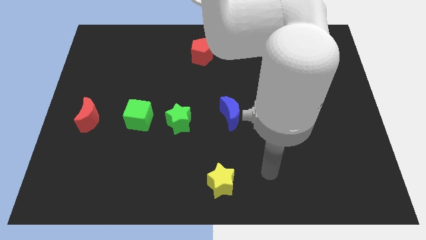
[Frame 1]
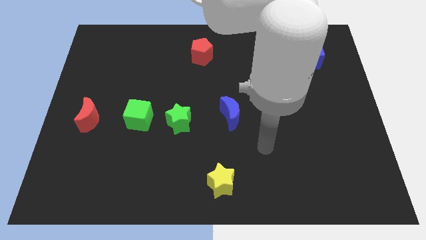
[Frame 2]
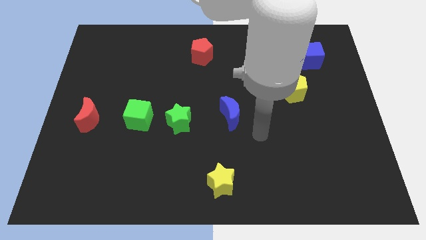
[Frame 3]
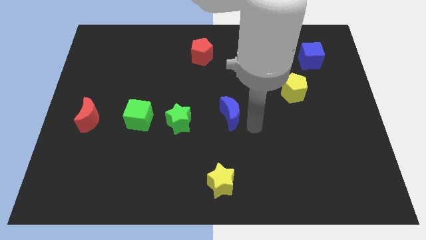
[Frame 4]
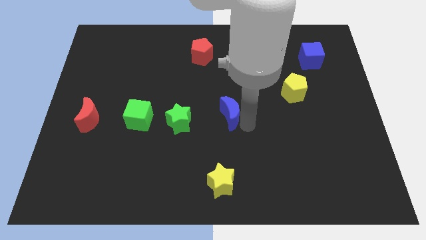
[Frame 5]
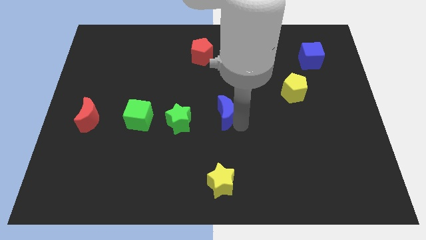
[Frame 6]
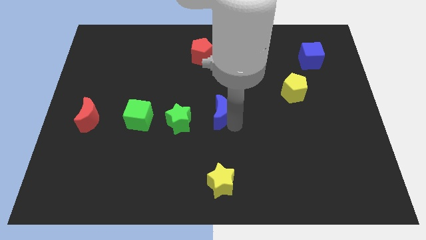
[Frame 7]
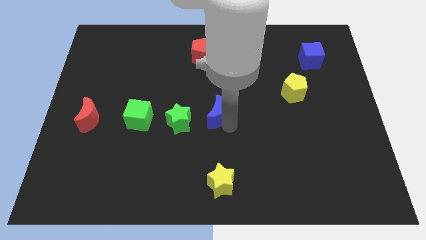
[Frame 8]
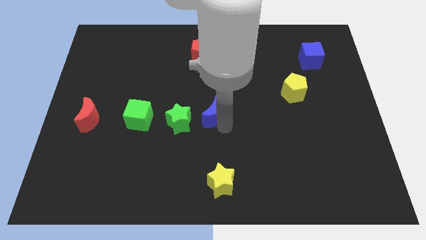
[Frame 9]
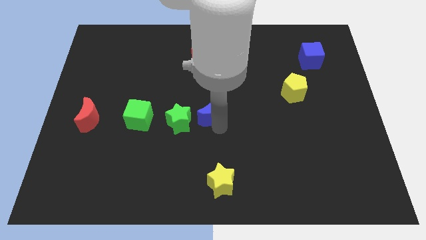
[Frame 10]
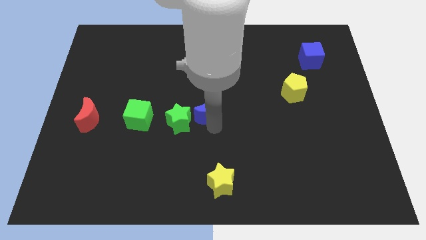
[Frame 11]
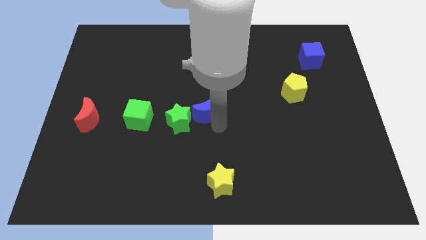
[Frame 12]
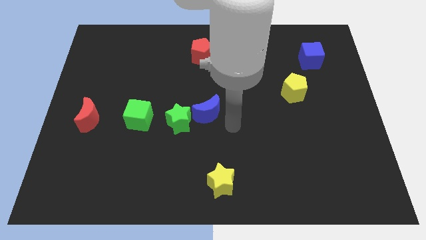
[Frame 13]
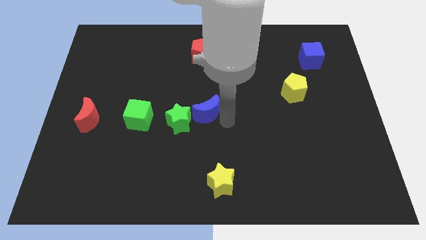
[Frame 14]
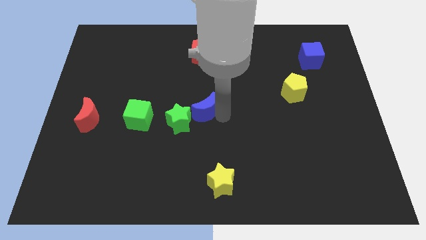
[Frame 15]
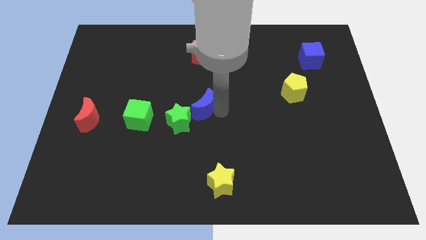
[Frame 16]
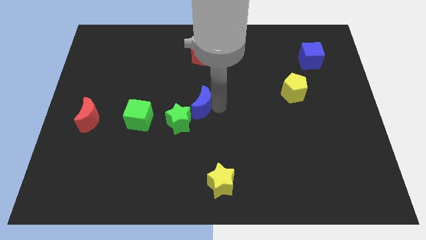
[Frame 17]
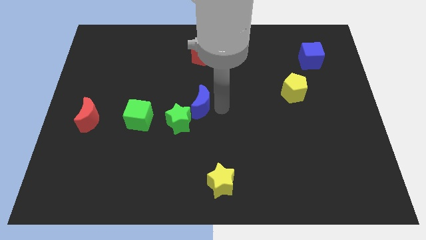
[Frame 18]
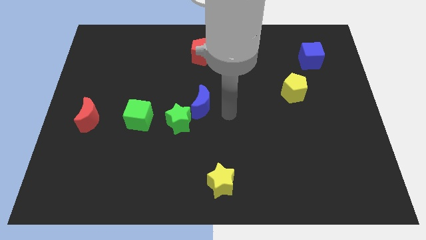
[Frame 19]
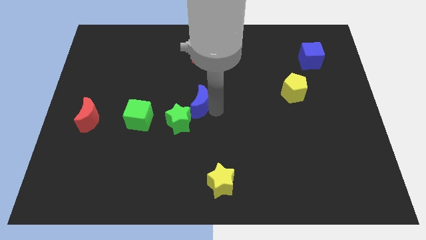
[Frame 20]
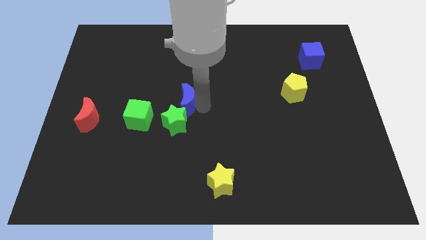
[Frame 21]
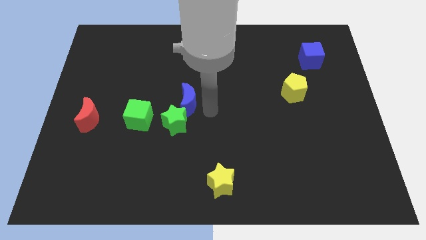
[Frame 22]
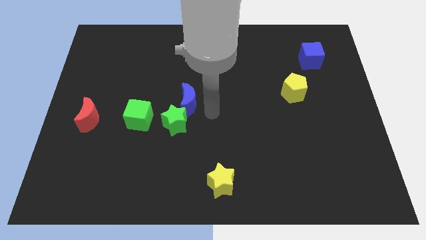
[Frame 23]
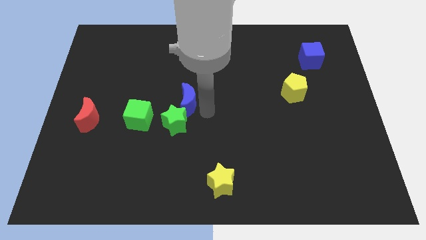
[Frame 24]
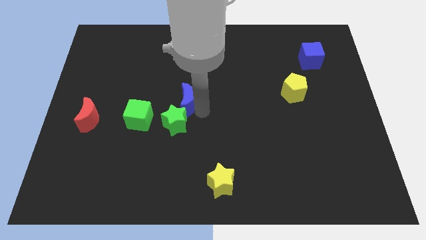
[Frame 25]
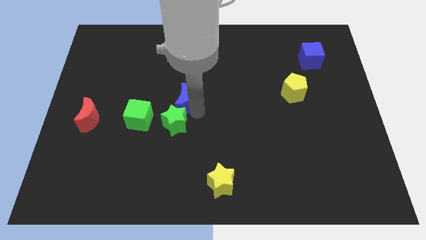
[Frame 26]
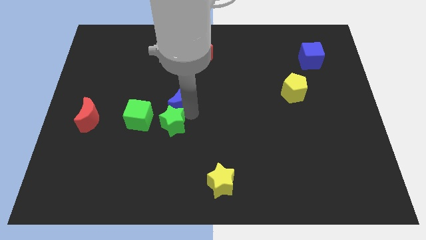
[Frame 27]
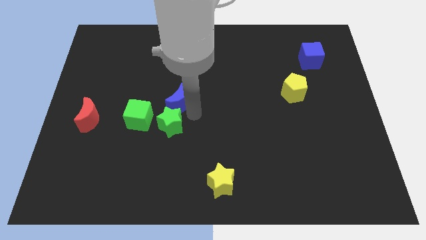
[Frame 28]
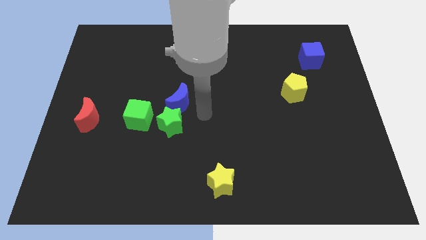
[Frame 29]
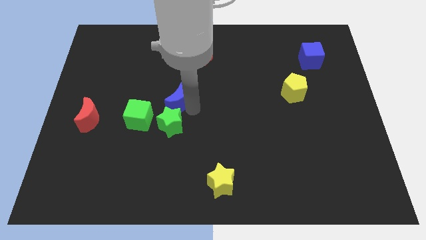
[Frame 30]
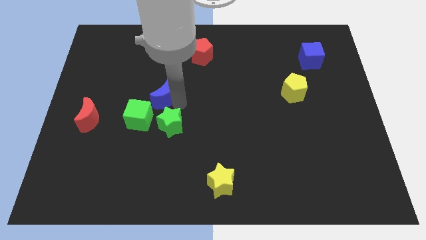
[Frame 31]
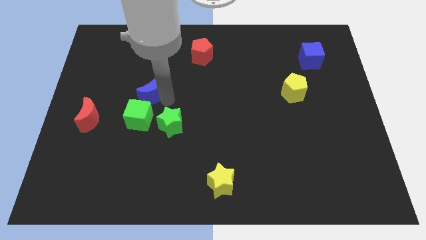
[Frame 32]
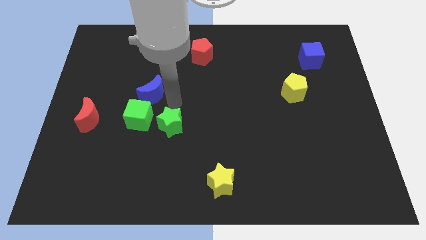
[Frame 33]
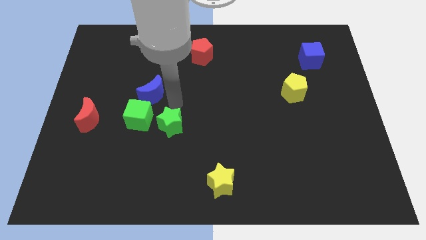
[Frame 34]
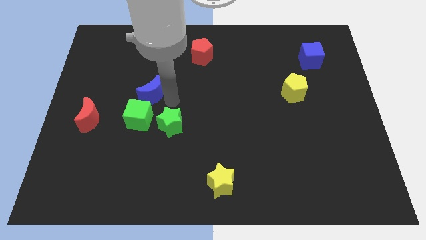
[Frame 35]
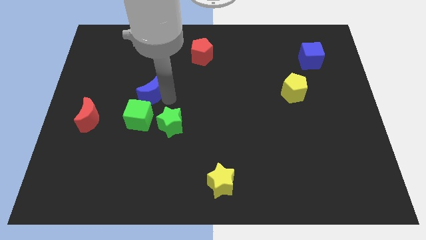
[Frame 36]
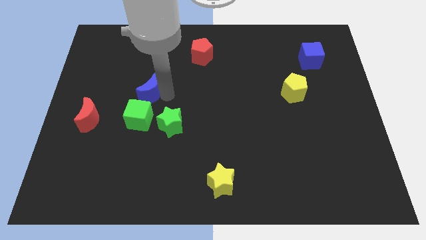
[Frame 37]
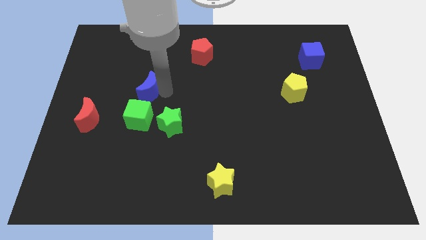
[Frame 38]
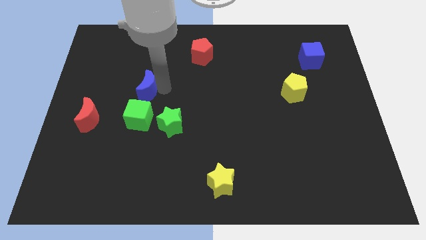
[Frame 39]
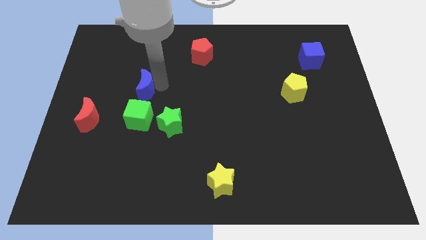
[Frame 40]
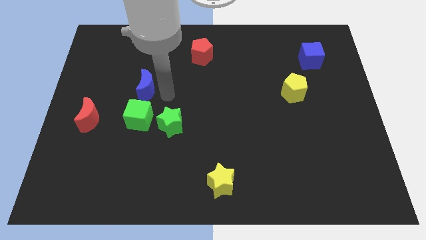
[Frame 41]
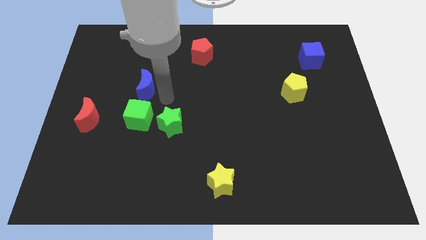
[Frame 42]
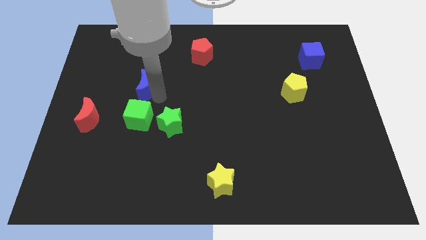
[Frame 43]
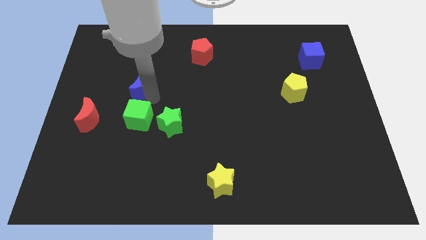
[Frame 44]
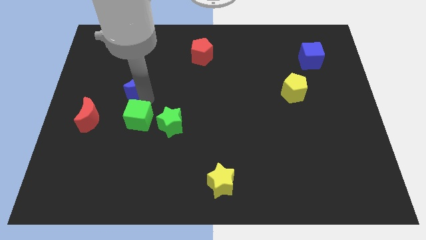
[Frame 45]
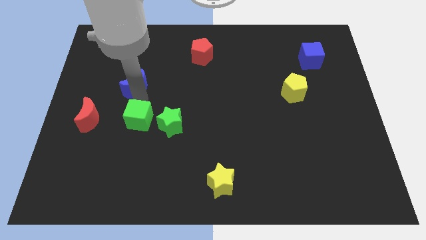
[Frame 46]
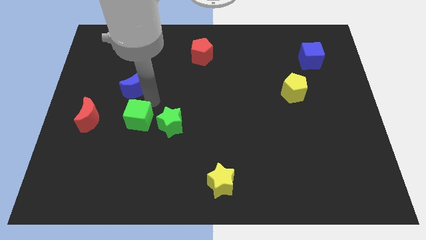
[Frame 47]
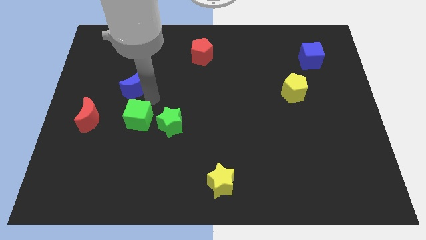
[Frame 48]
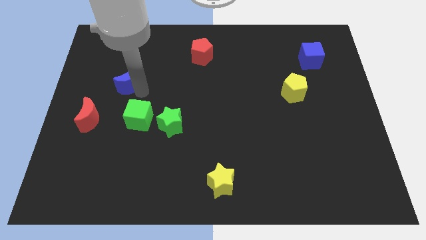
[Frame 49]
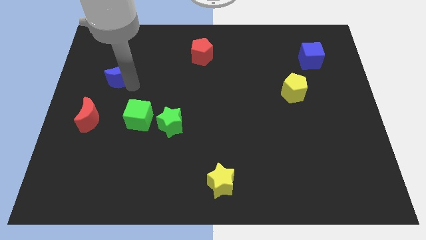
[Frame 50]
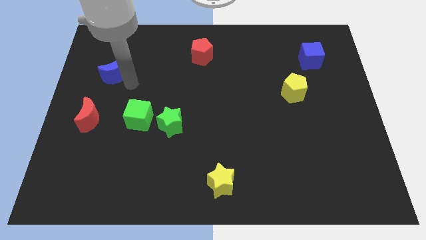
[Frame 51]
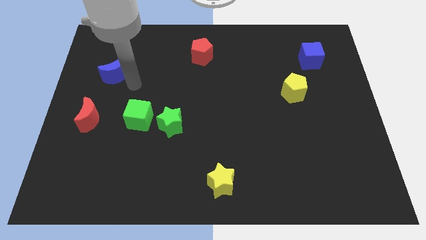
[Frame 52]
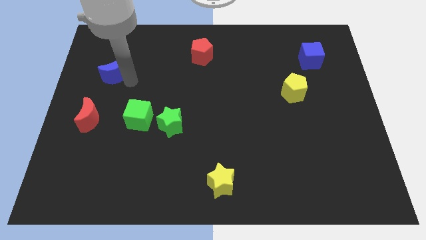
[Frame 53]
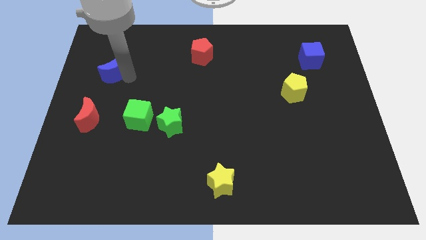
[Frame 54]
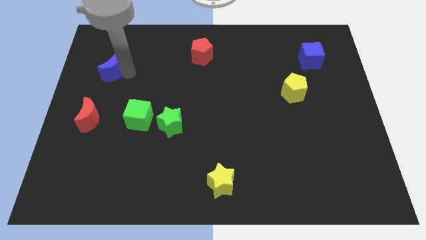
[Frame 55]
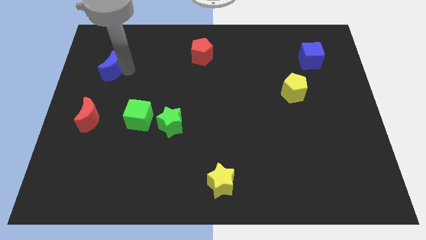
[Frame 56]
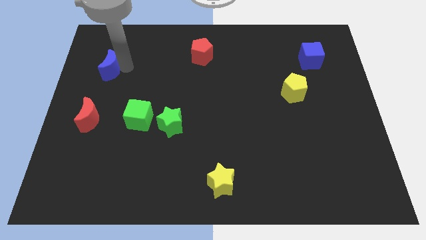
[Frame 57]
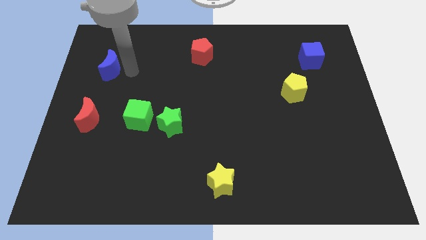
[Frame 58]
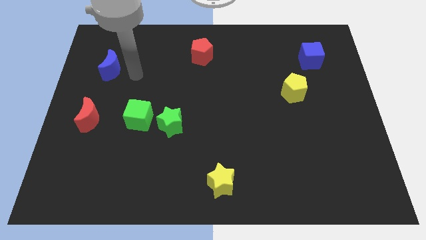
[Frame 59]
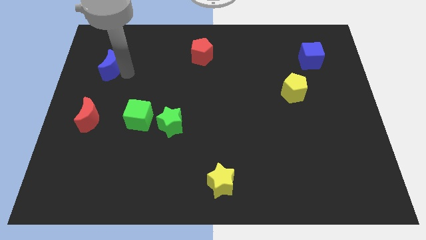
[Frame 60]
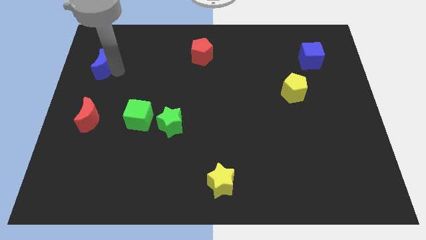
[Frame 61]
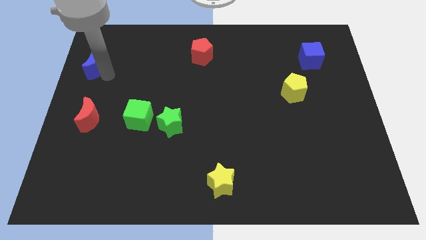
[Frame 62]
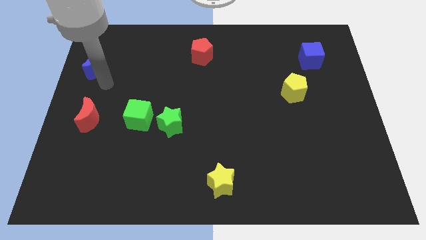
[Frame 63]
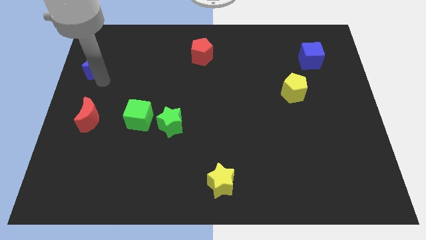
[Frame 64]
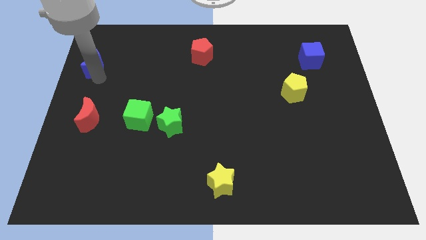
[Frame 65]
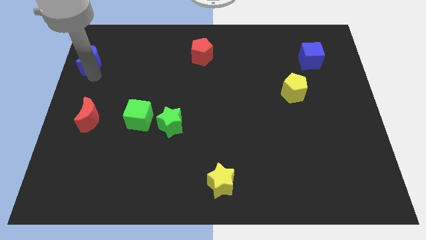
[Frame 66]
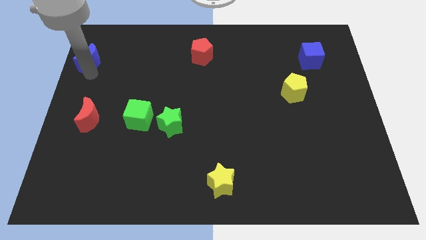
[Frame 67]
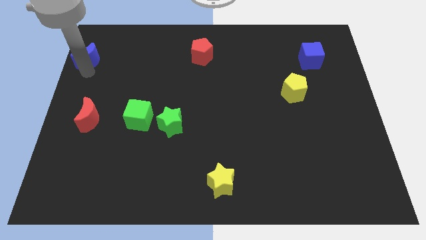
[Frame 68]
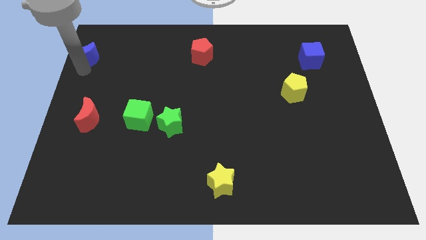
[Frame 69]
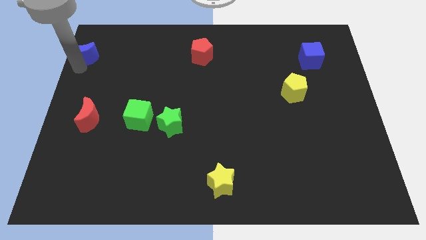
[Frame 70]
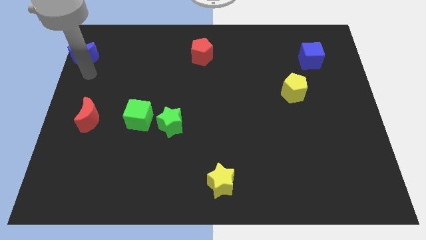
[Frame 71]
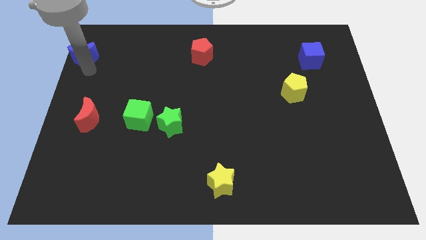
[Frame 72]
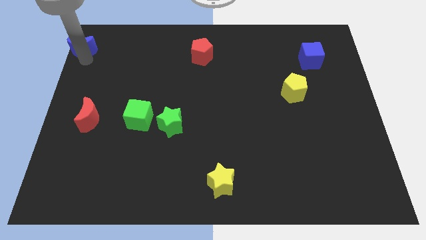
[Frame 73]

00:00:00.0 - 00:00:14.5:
push the blue moon to the upper left corner
